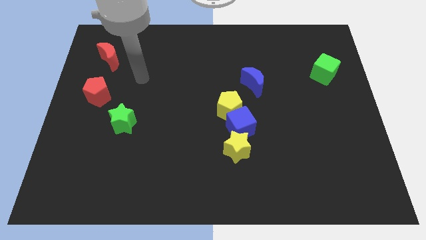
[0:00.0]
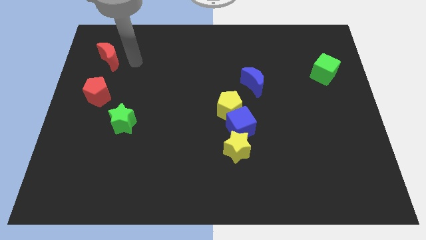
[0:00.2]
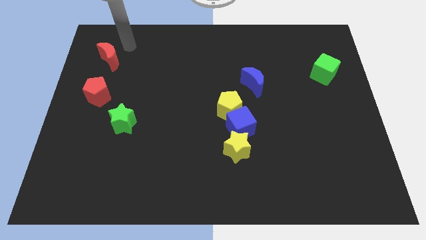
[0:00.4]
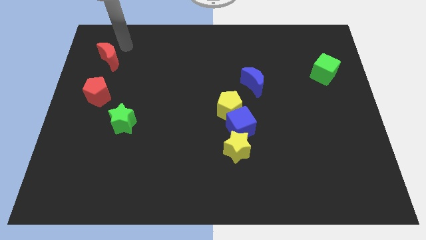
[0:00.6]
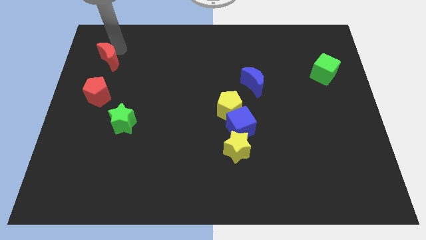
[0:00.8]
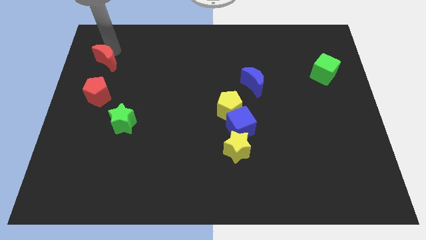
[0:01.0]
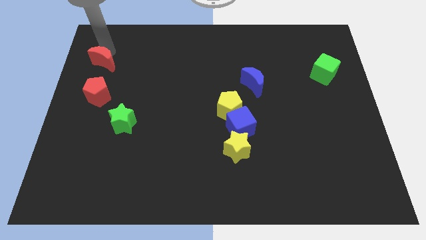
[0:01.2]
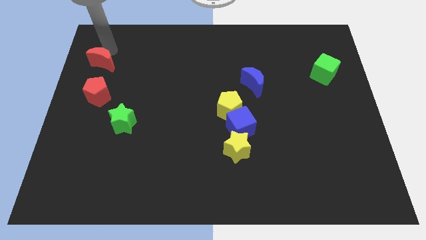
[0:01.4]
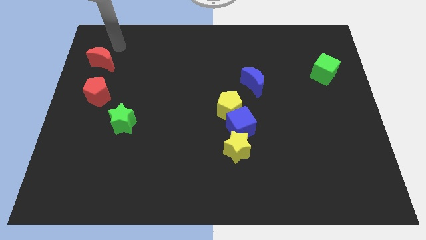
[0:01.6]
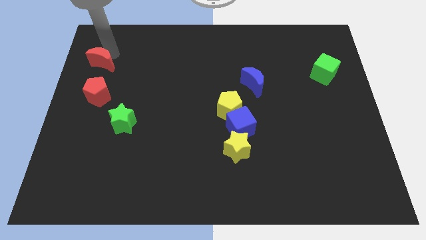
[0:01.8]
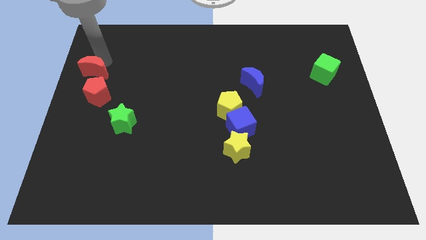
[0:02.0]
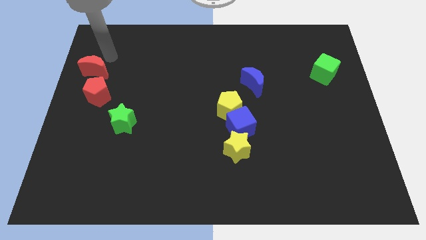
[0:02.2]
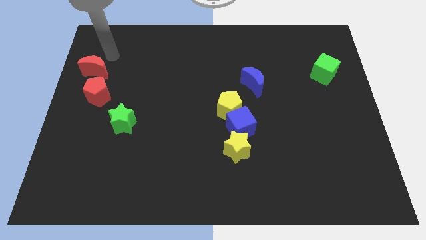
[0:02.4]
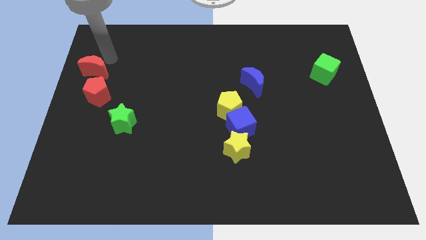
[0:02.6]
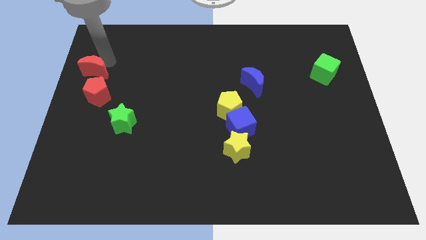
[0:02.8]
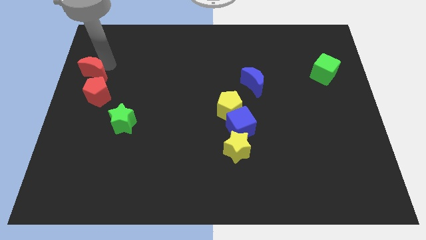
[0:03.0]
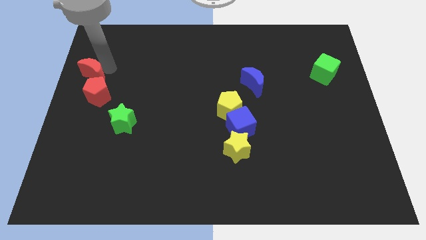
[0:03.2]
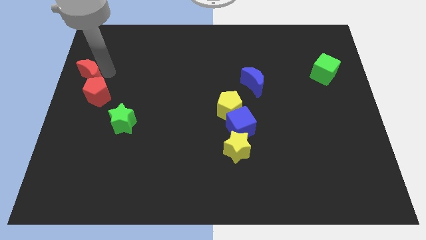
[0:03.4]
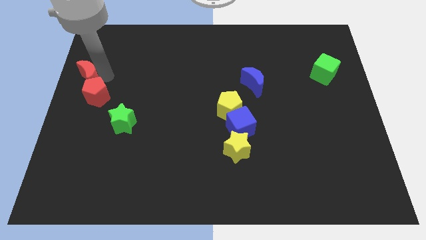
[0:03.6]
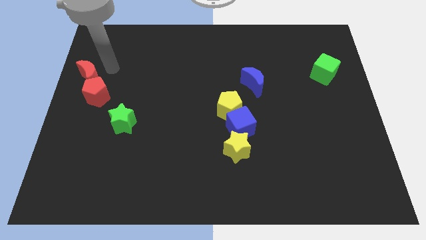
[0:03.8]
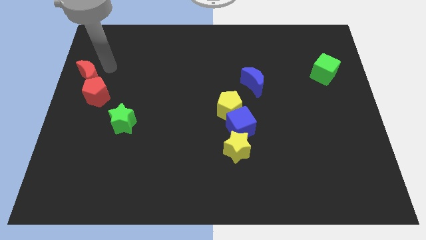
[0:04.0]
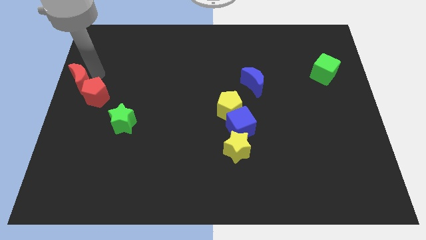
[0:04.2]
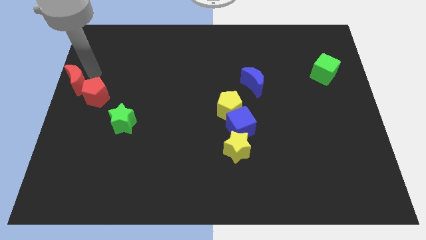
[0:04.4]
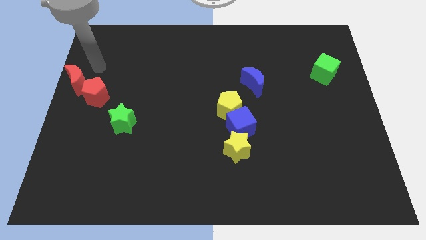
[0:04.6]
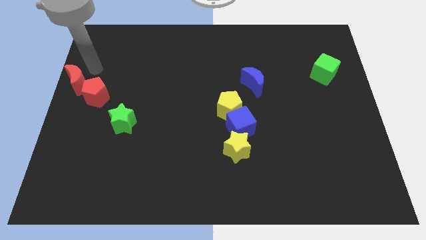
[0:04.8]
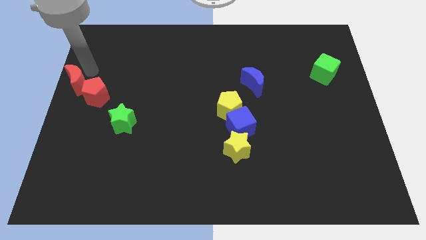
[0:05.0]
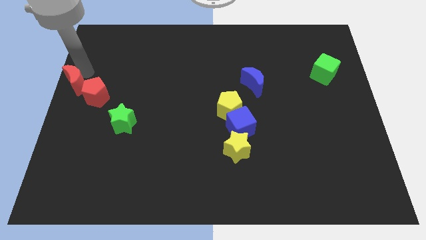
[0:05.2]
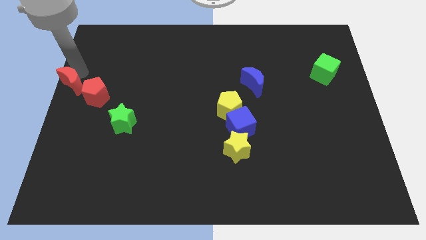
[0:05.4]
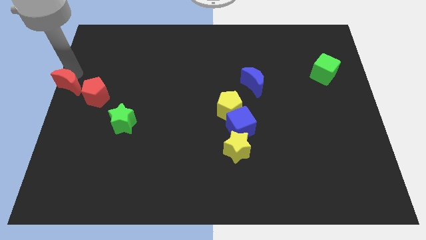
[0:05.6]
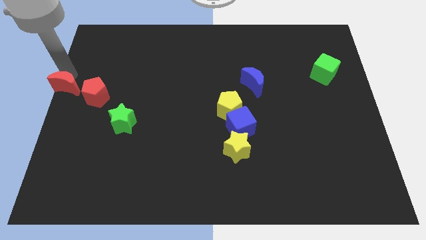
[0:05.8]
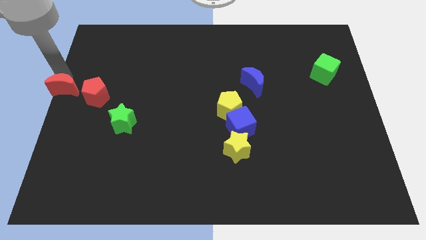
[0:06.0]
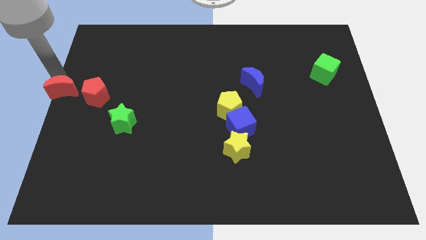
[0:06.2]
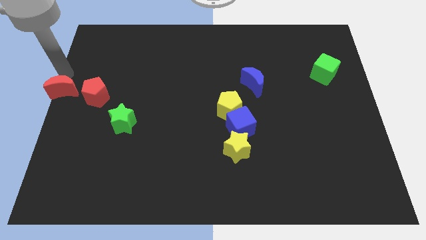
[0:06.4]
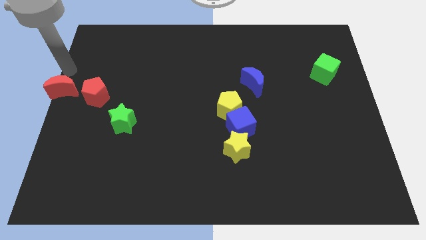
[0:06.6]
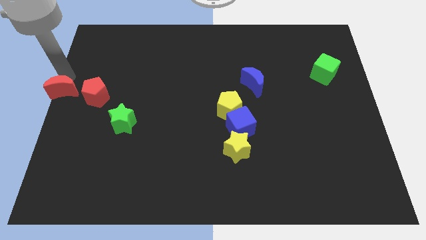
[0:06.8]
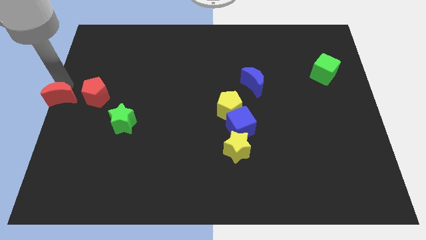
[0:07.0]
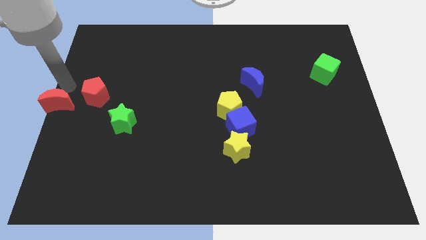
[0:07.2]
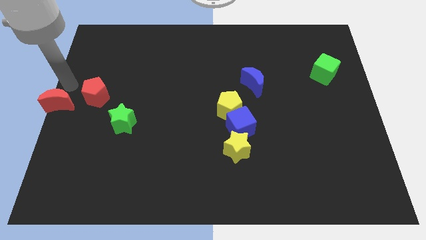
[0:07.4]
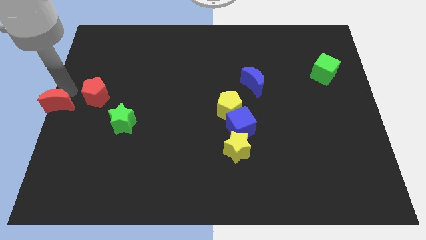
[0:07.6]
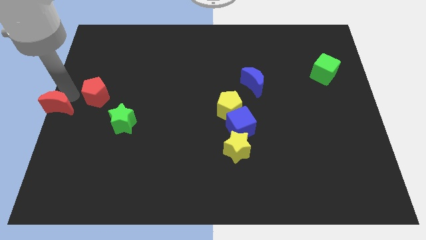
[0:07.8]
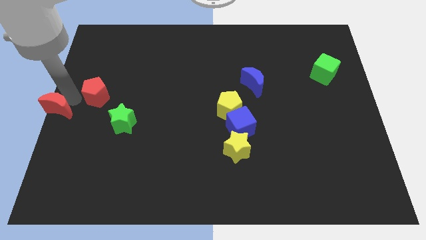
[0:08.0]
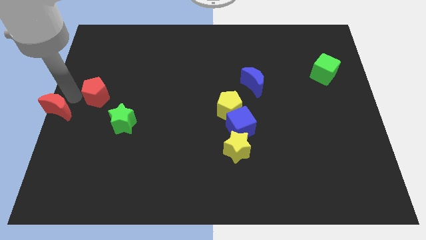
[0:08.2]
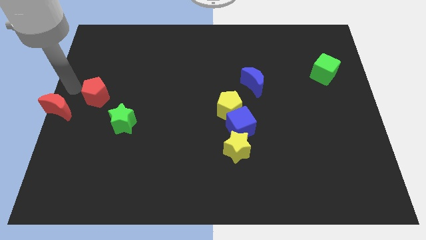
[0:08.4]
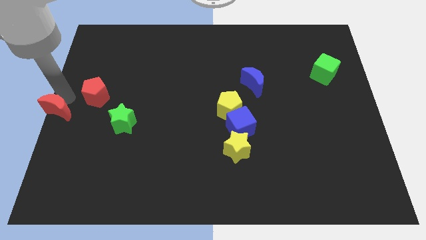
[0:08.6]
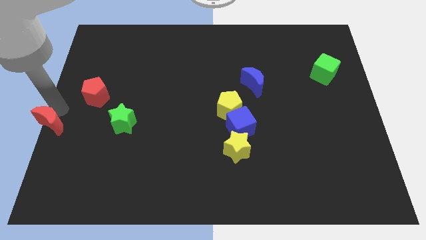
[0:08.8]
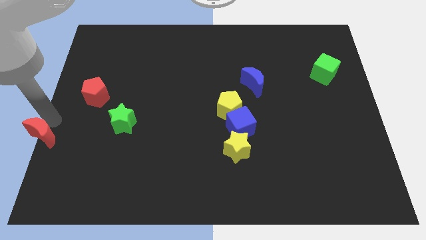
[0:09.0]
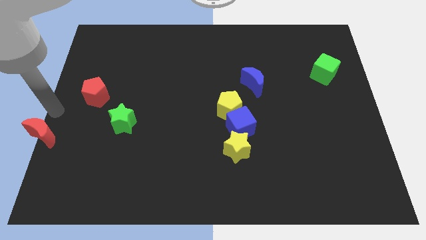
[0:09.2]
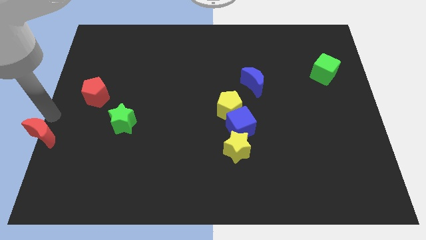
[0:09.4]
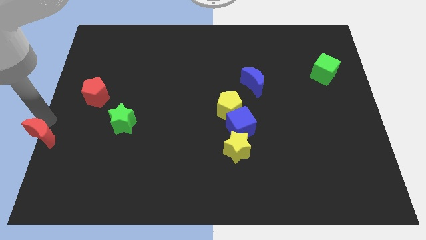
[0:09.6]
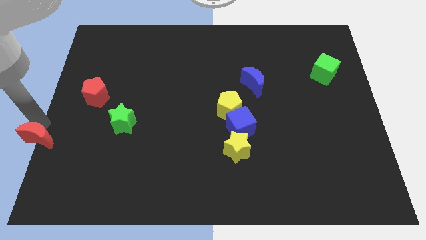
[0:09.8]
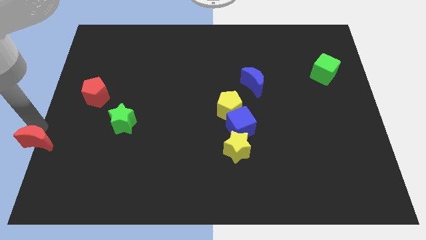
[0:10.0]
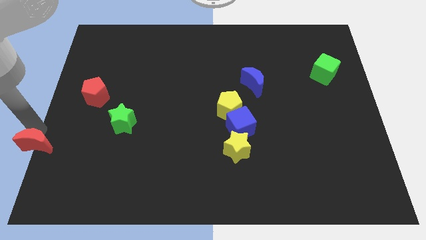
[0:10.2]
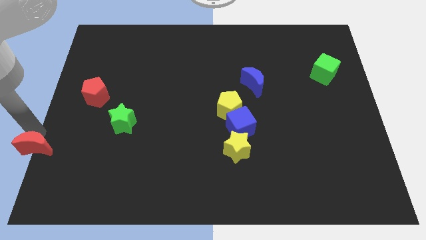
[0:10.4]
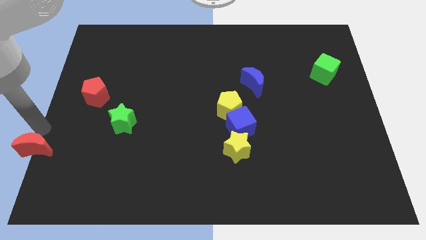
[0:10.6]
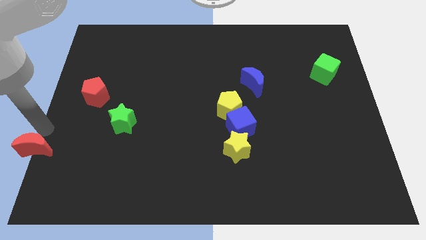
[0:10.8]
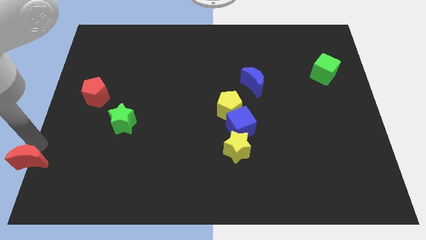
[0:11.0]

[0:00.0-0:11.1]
slide the red moon to the bottom left corner
